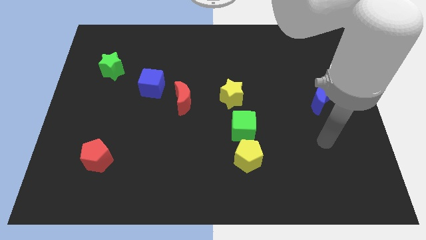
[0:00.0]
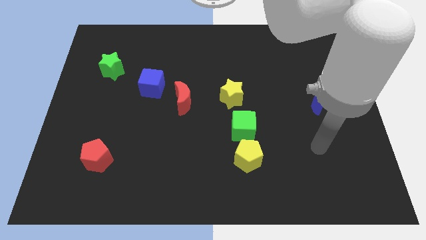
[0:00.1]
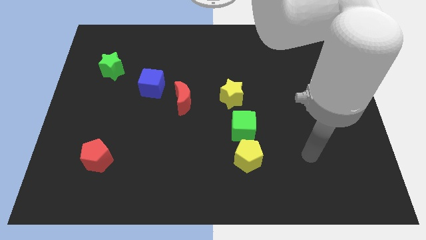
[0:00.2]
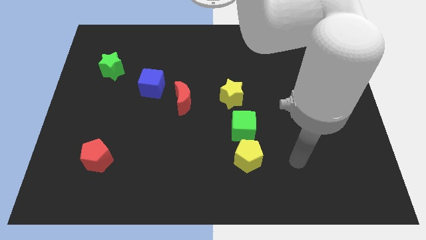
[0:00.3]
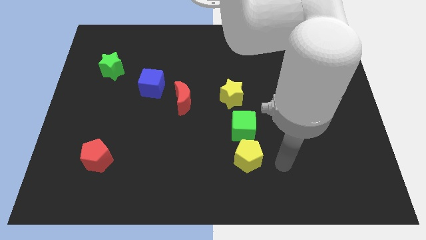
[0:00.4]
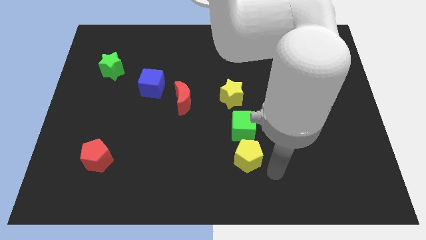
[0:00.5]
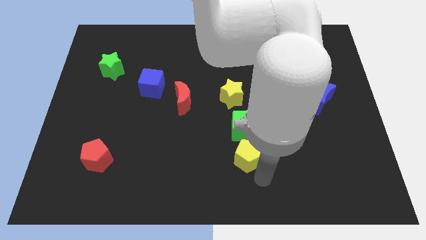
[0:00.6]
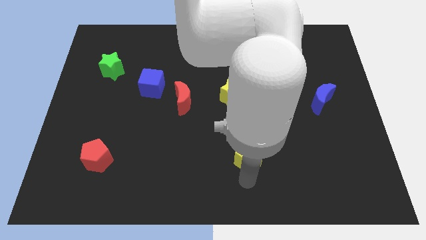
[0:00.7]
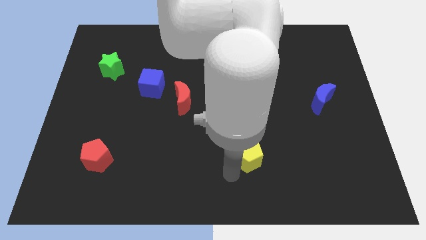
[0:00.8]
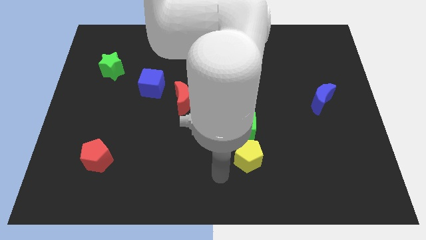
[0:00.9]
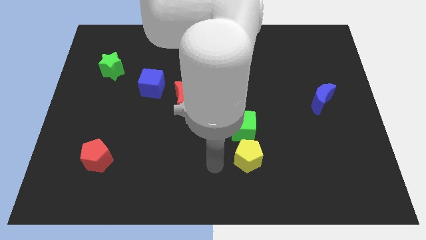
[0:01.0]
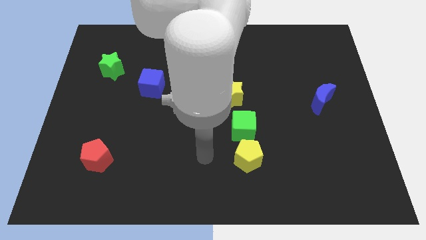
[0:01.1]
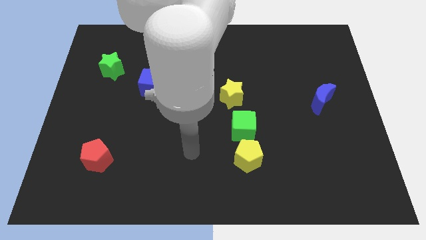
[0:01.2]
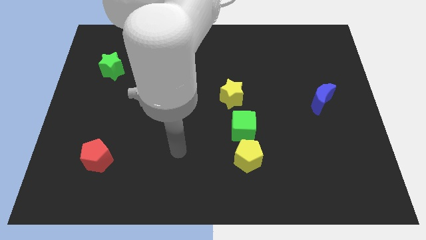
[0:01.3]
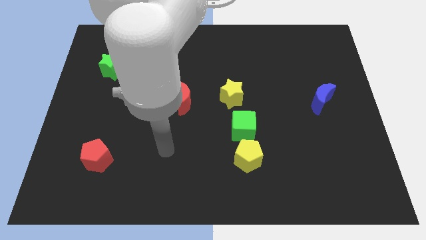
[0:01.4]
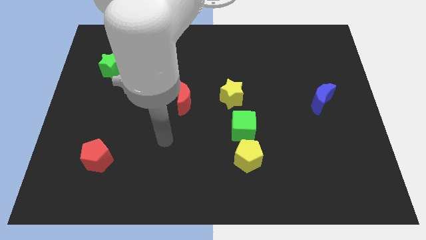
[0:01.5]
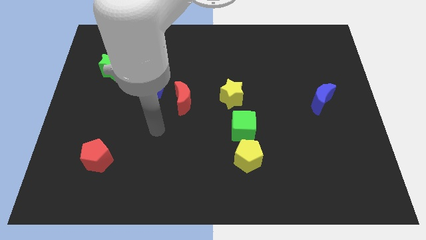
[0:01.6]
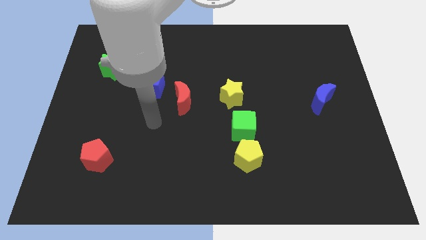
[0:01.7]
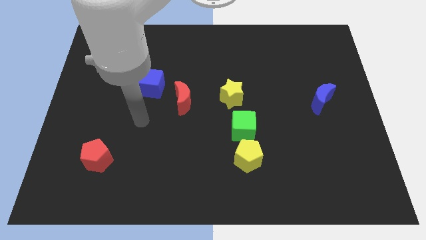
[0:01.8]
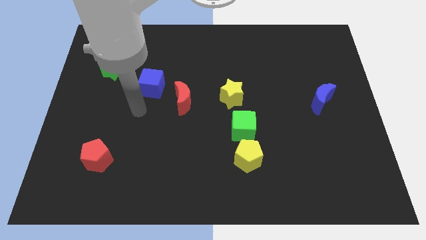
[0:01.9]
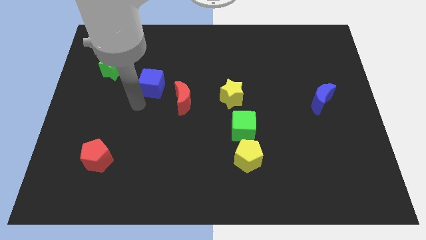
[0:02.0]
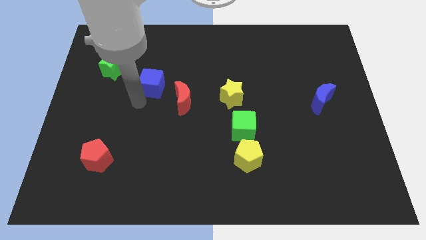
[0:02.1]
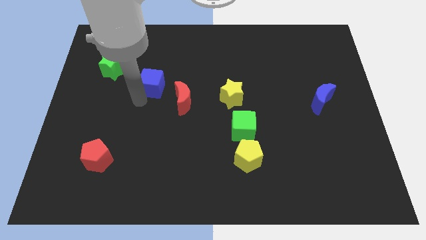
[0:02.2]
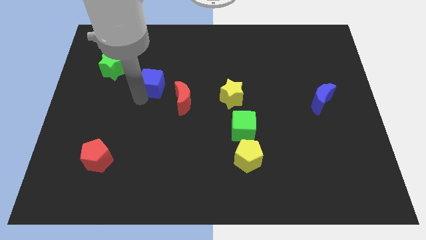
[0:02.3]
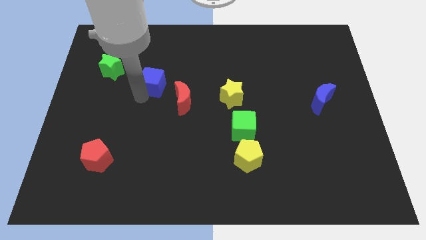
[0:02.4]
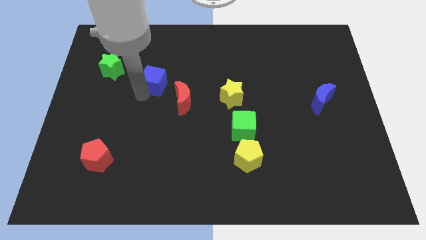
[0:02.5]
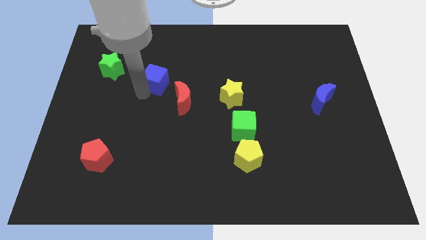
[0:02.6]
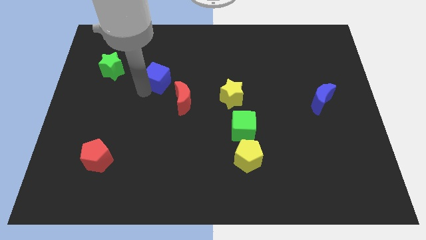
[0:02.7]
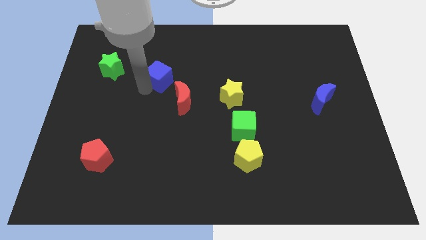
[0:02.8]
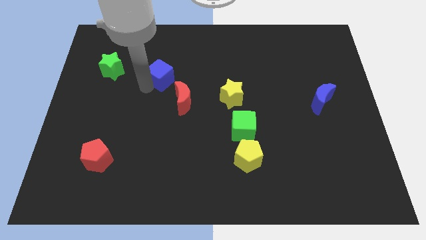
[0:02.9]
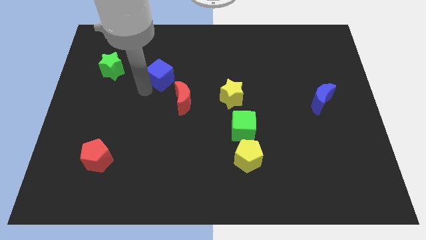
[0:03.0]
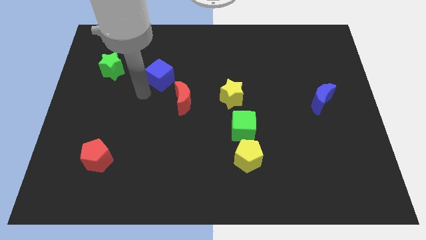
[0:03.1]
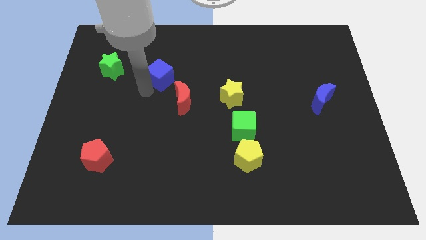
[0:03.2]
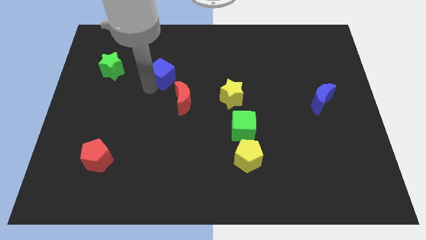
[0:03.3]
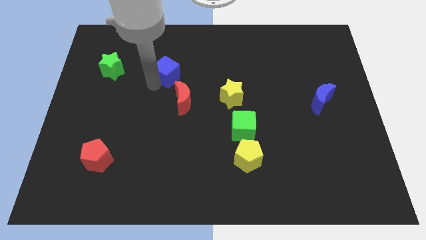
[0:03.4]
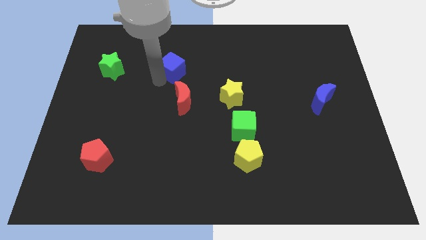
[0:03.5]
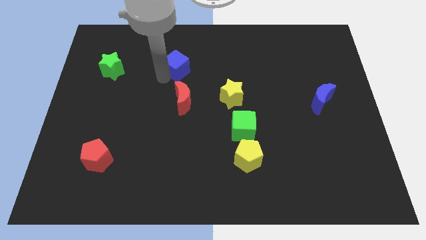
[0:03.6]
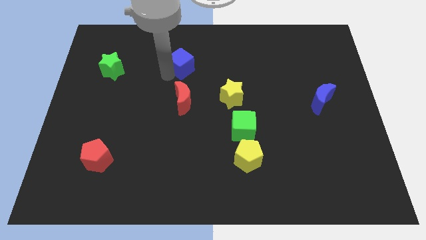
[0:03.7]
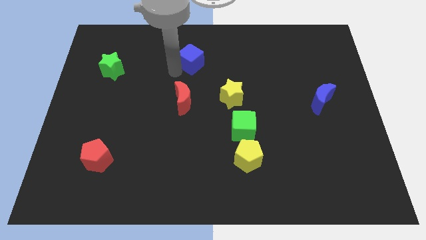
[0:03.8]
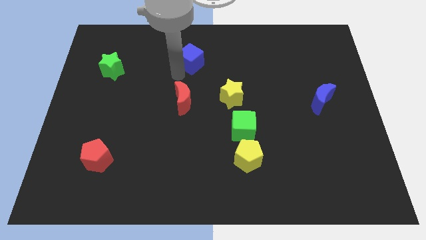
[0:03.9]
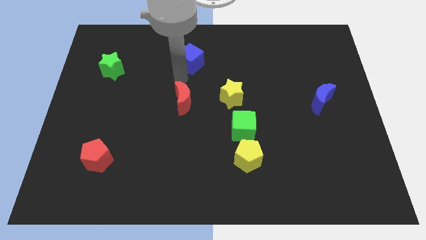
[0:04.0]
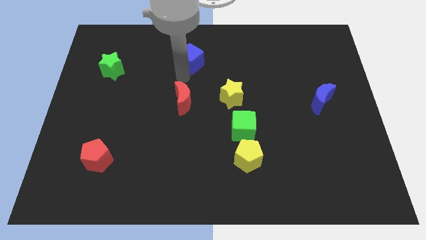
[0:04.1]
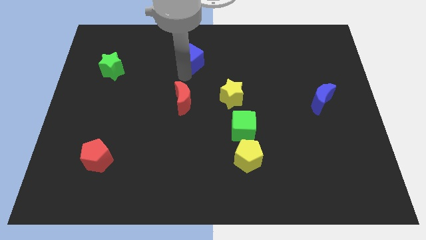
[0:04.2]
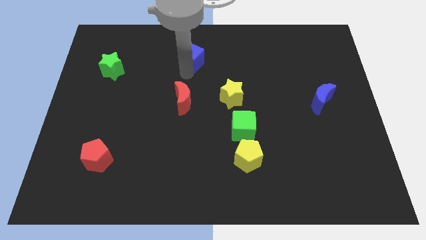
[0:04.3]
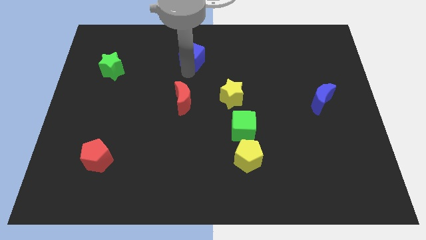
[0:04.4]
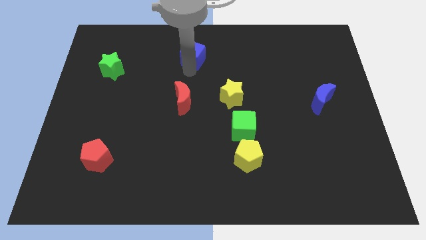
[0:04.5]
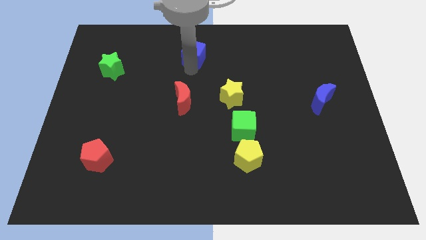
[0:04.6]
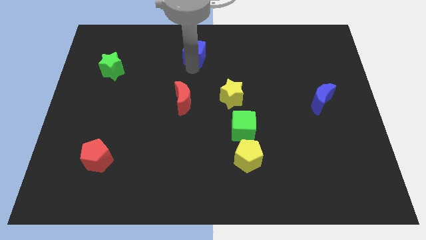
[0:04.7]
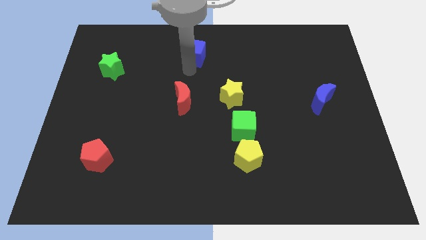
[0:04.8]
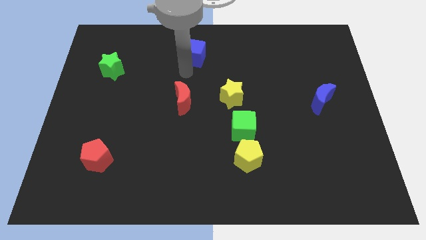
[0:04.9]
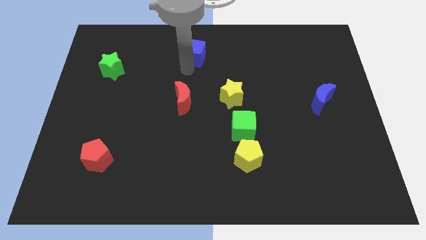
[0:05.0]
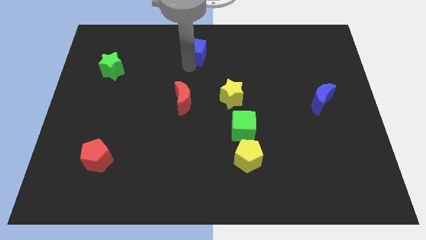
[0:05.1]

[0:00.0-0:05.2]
slide the blue cube to the top side

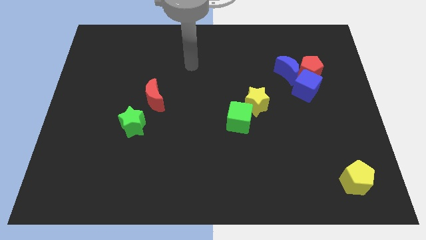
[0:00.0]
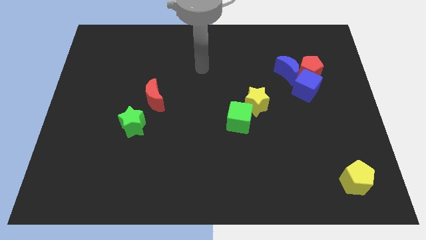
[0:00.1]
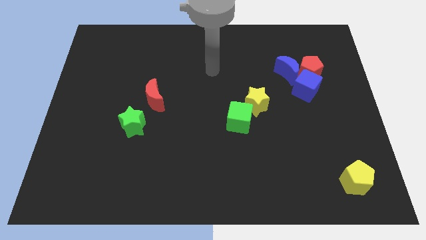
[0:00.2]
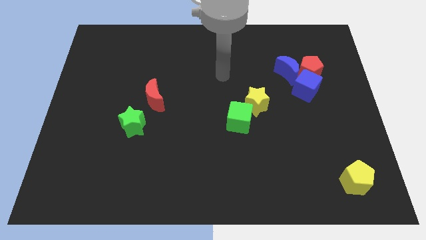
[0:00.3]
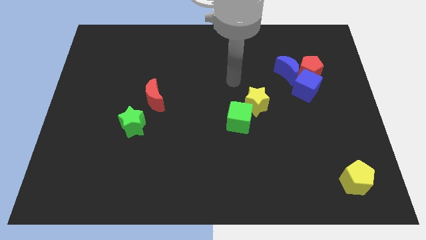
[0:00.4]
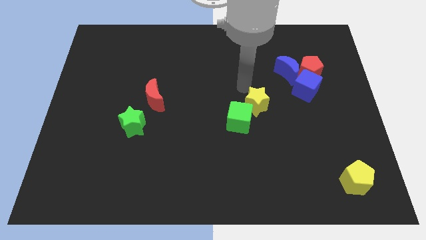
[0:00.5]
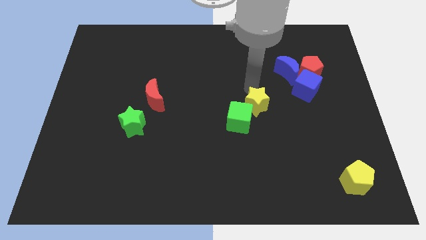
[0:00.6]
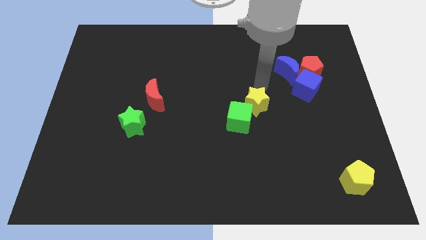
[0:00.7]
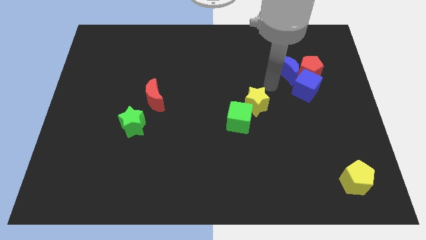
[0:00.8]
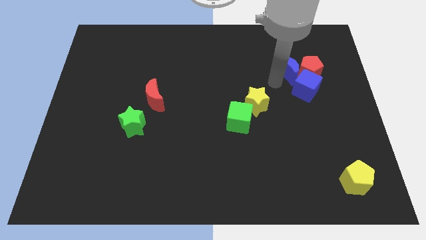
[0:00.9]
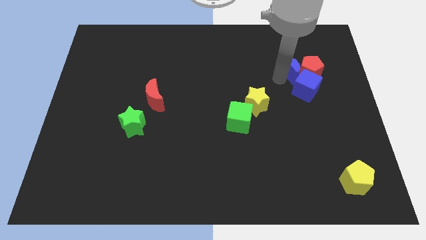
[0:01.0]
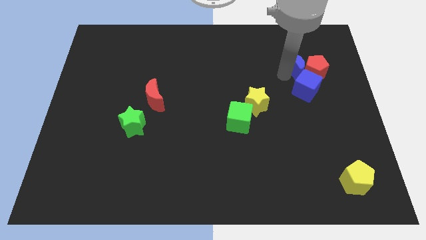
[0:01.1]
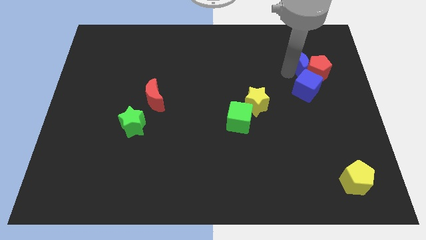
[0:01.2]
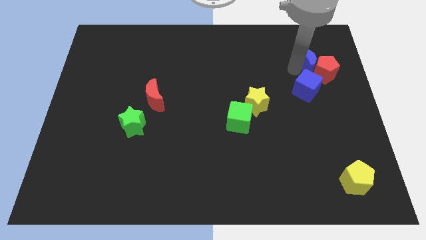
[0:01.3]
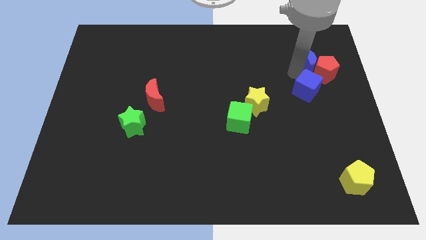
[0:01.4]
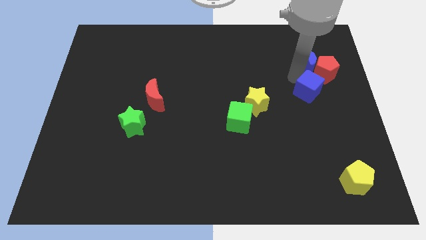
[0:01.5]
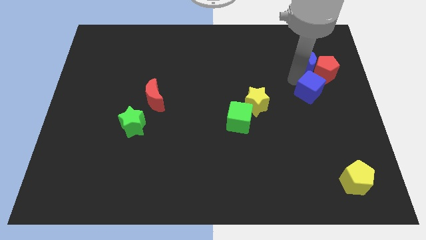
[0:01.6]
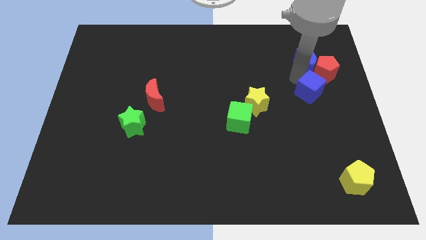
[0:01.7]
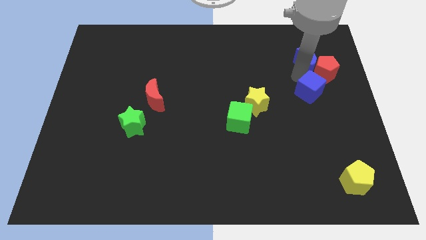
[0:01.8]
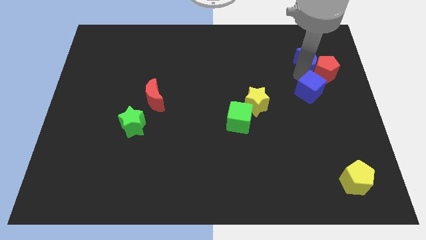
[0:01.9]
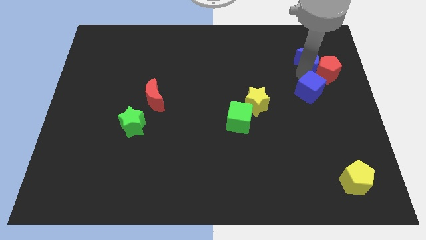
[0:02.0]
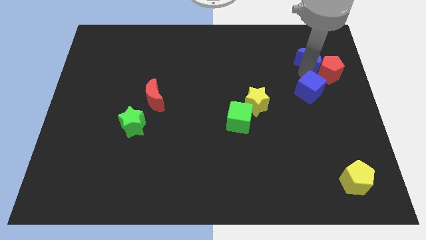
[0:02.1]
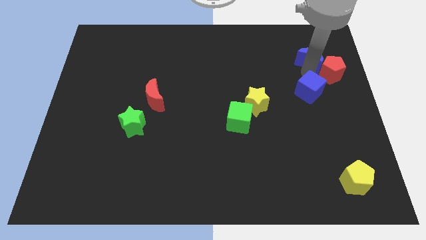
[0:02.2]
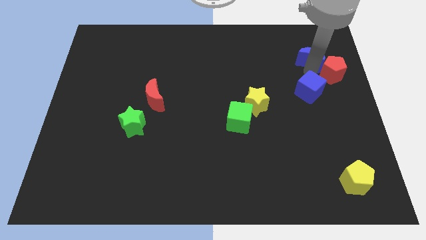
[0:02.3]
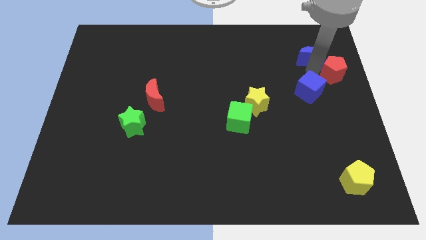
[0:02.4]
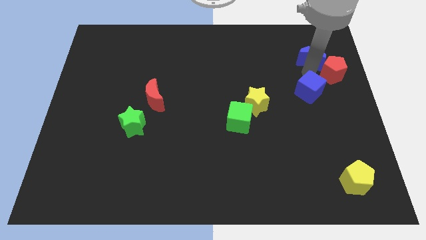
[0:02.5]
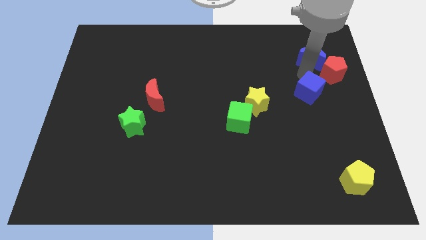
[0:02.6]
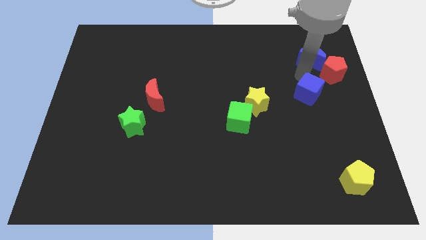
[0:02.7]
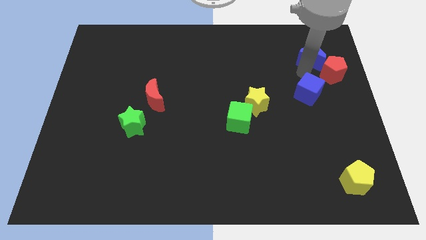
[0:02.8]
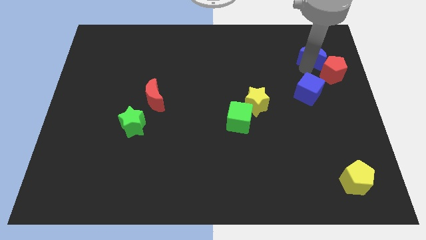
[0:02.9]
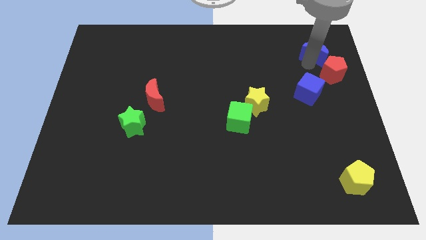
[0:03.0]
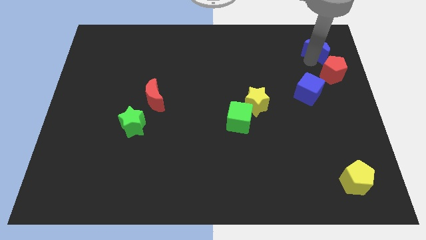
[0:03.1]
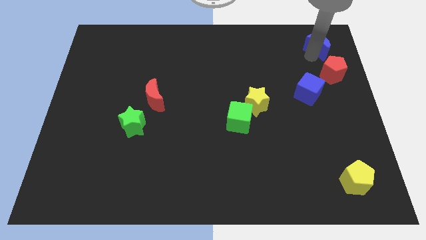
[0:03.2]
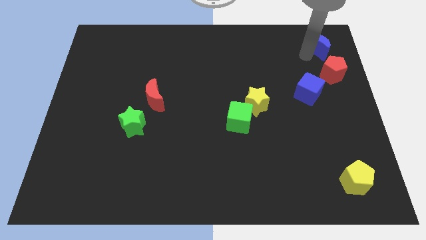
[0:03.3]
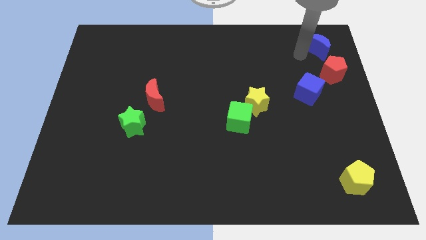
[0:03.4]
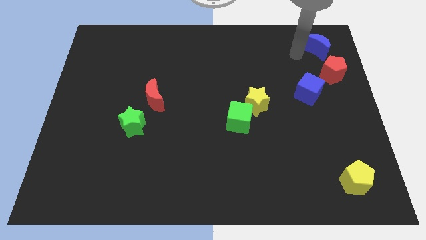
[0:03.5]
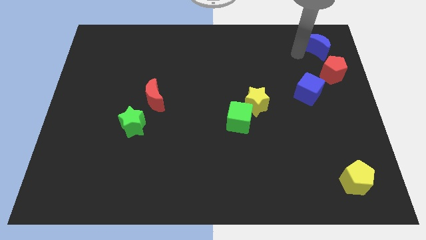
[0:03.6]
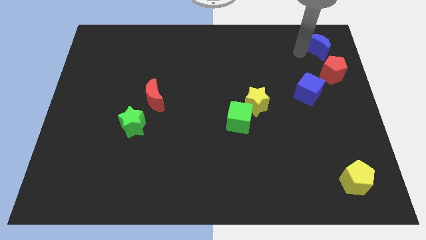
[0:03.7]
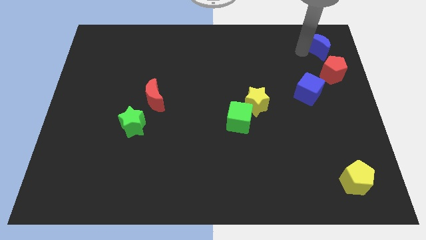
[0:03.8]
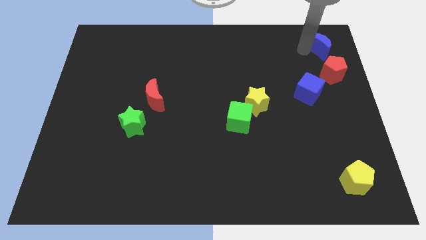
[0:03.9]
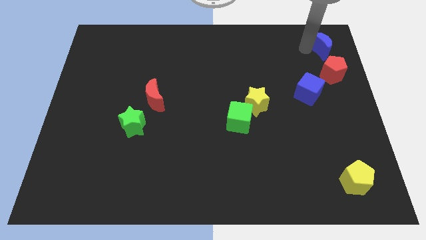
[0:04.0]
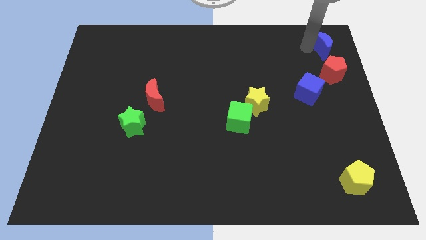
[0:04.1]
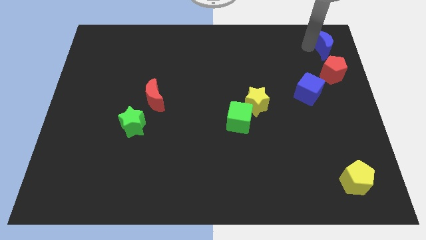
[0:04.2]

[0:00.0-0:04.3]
put the blue moon to the upper right corner
